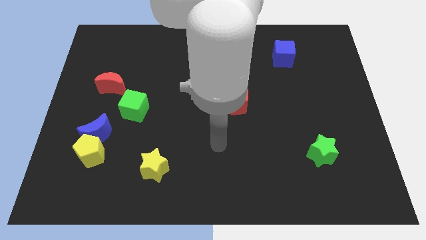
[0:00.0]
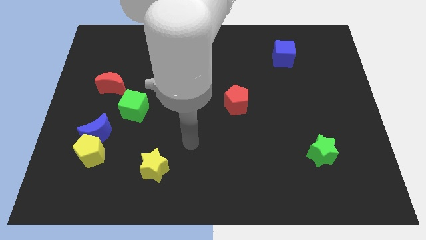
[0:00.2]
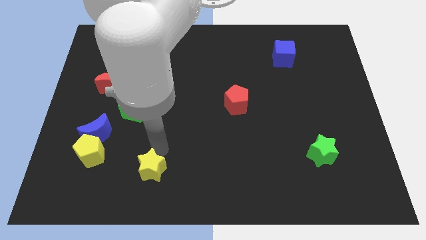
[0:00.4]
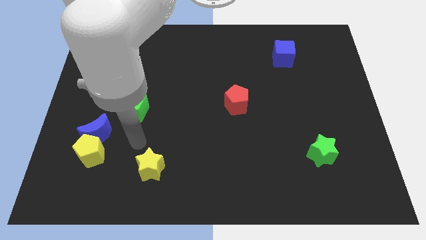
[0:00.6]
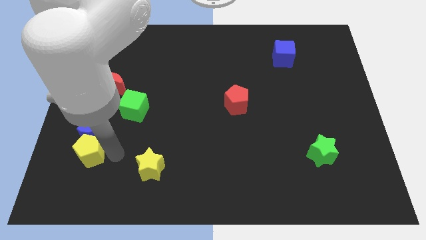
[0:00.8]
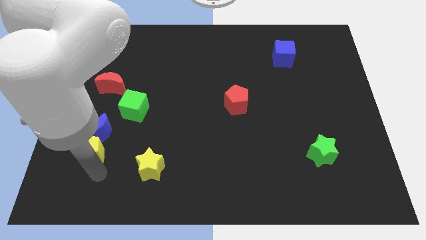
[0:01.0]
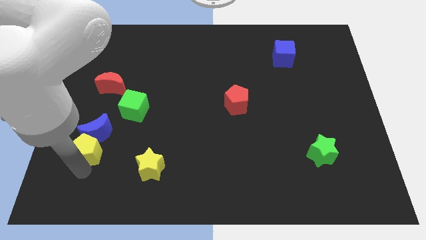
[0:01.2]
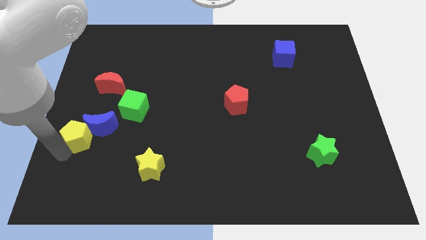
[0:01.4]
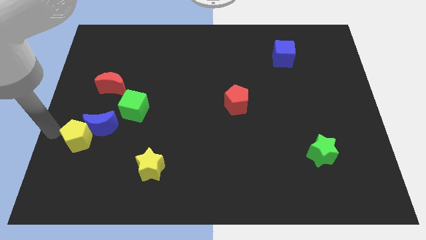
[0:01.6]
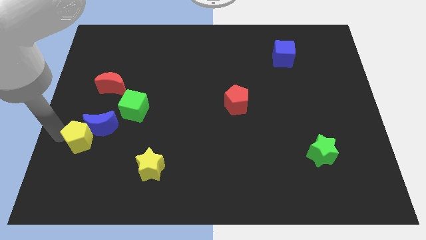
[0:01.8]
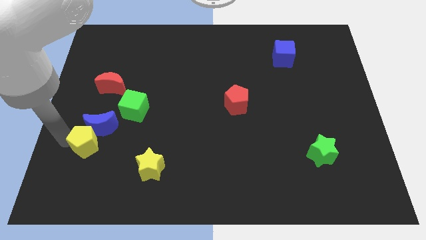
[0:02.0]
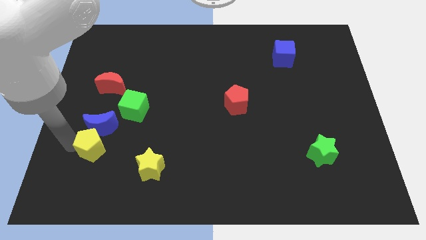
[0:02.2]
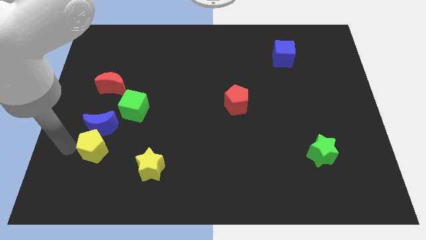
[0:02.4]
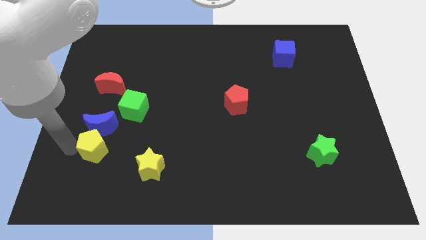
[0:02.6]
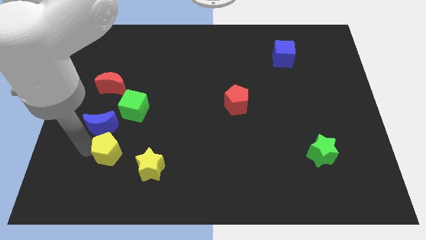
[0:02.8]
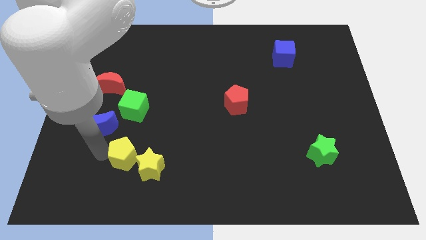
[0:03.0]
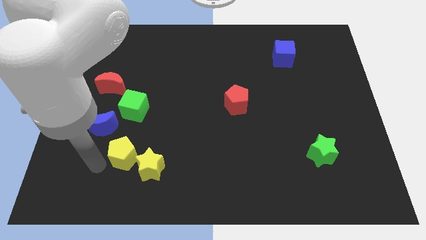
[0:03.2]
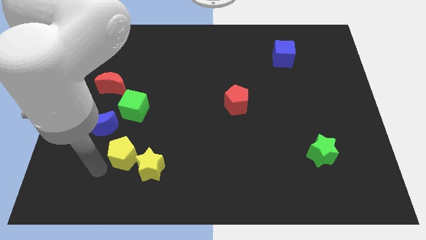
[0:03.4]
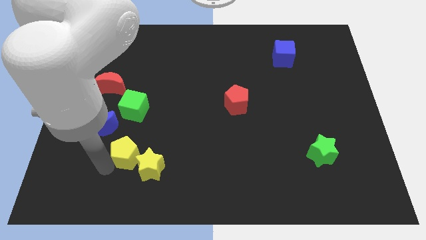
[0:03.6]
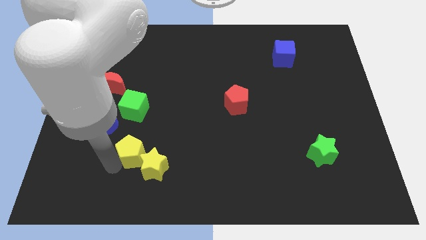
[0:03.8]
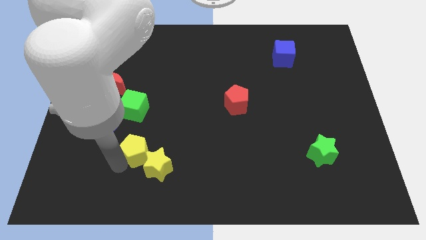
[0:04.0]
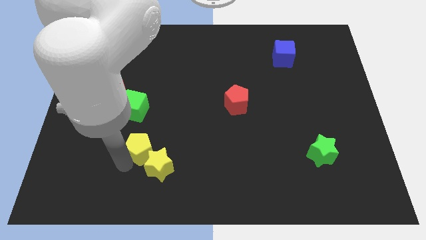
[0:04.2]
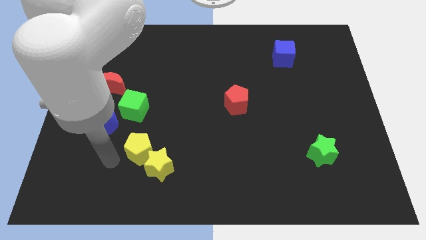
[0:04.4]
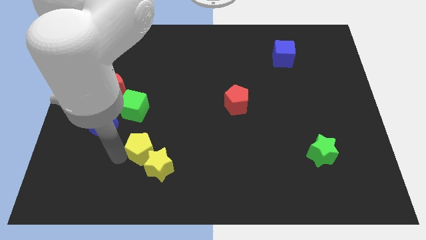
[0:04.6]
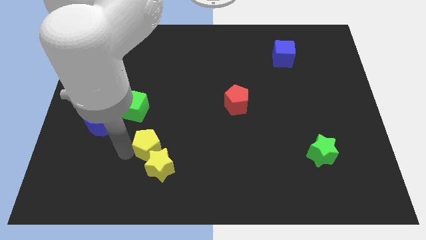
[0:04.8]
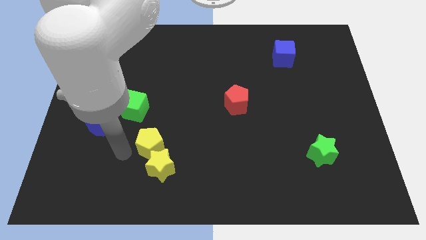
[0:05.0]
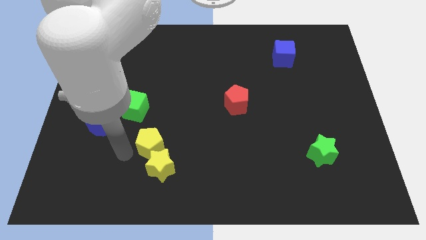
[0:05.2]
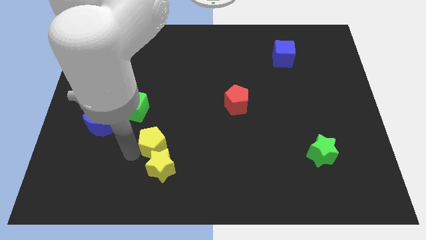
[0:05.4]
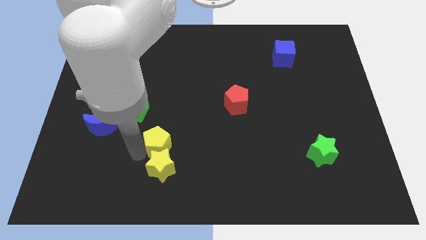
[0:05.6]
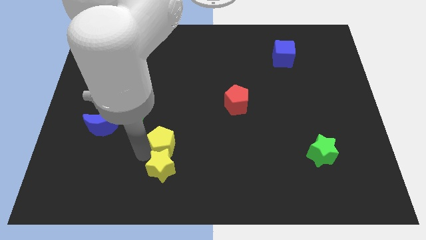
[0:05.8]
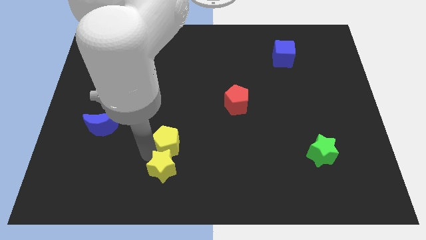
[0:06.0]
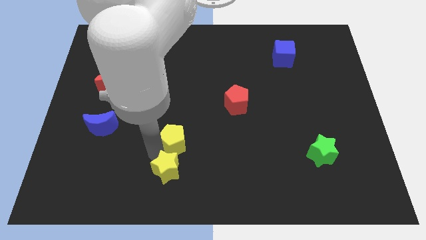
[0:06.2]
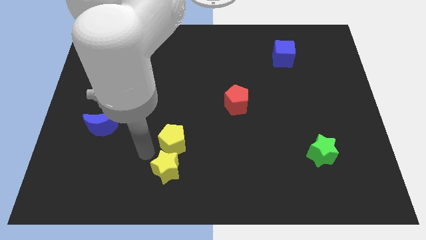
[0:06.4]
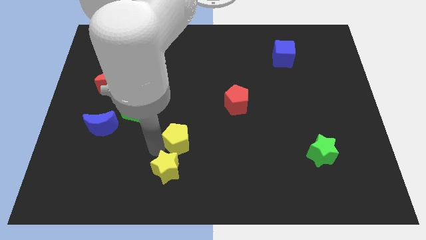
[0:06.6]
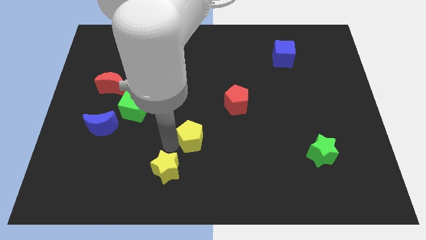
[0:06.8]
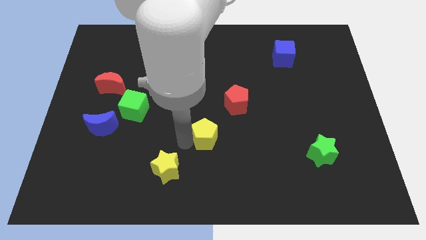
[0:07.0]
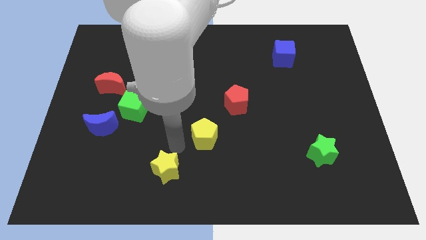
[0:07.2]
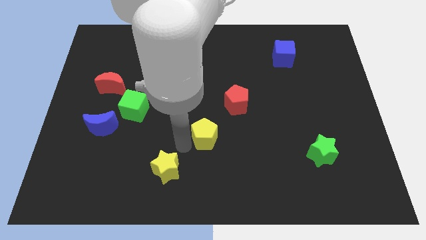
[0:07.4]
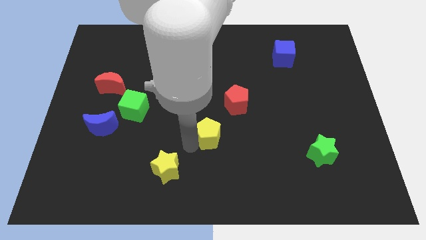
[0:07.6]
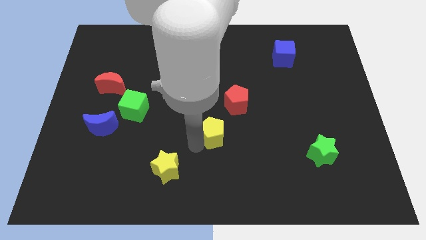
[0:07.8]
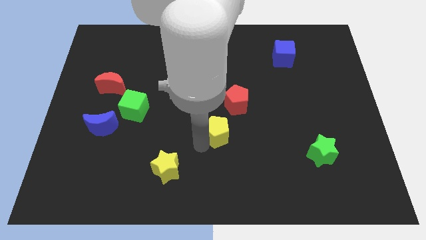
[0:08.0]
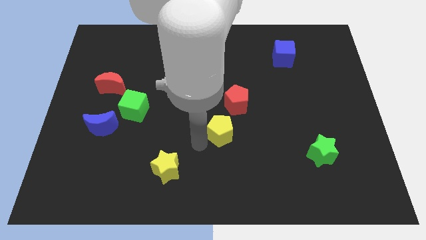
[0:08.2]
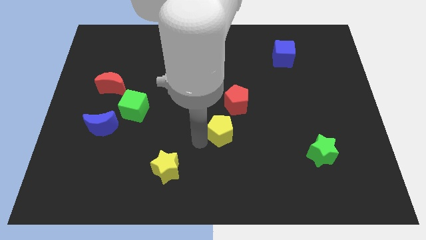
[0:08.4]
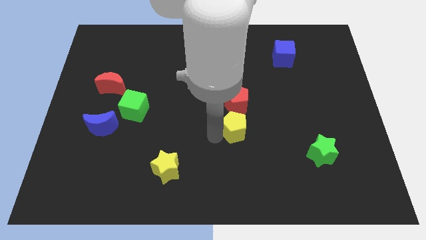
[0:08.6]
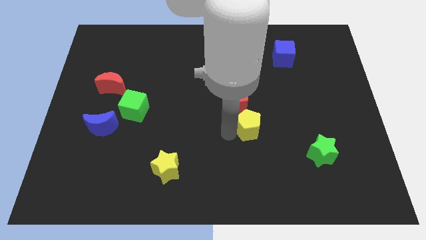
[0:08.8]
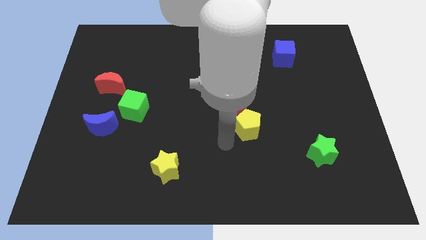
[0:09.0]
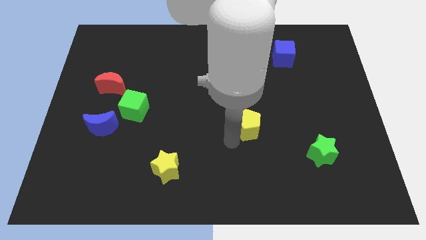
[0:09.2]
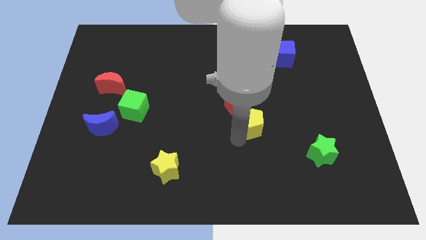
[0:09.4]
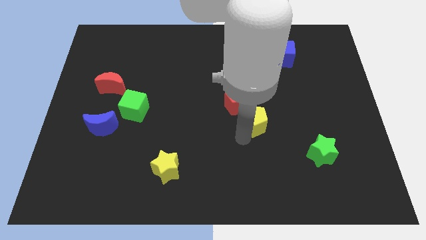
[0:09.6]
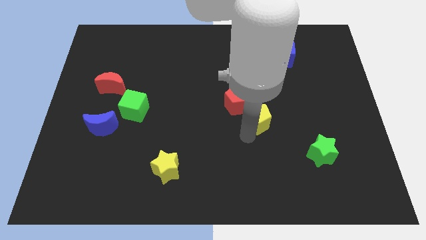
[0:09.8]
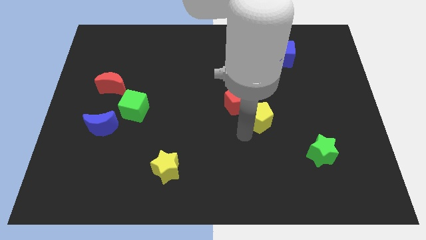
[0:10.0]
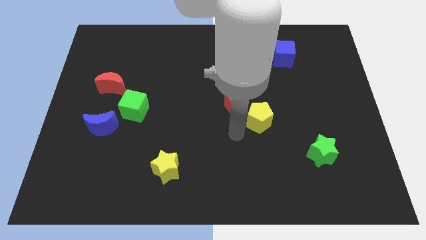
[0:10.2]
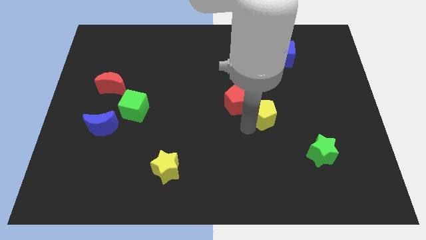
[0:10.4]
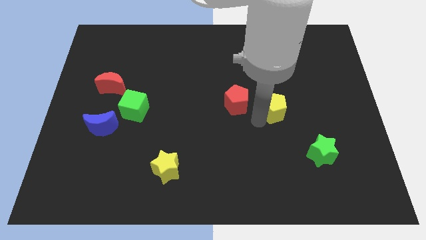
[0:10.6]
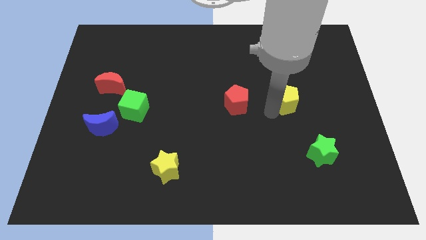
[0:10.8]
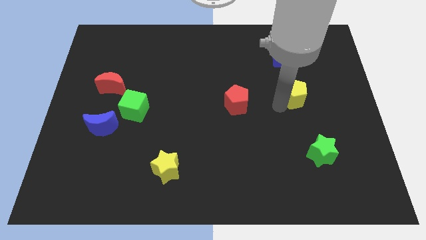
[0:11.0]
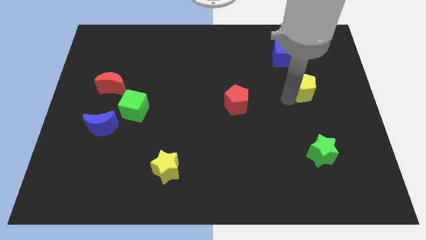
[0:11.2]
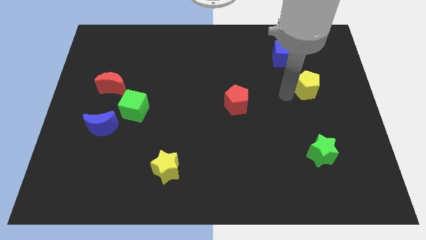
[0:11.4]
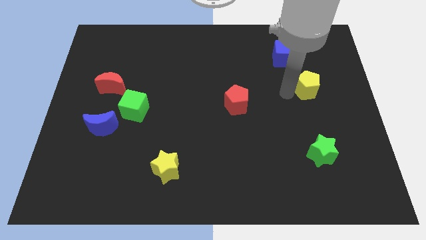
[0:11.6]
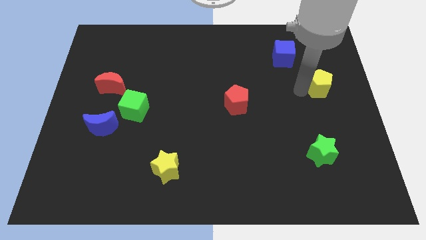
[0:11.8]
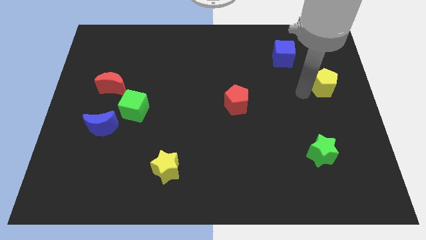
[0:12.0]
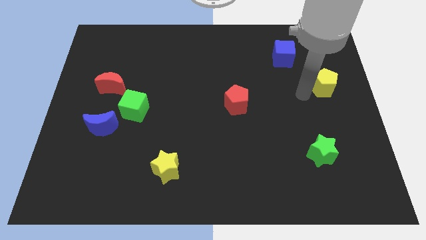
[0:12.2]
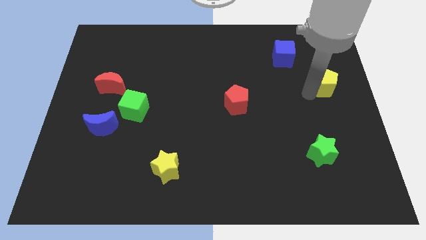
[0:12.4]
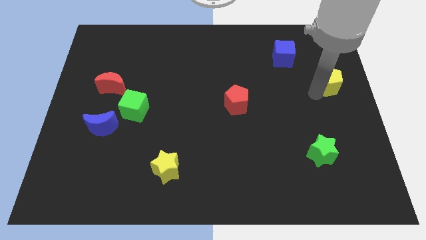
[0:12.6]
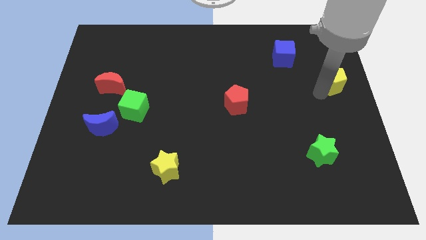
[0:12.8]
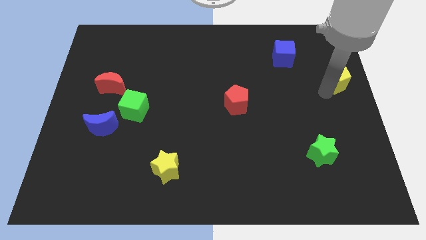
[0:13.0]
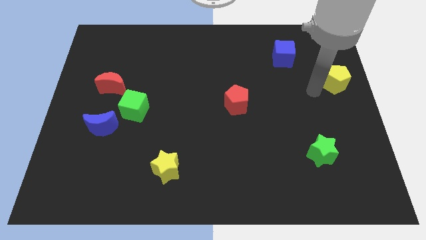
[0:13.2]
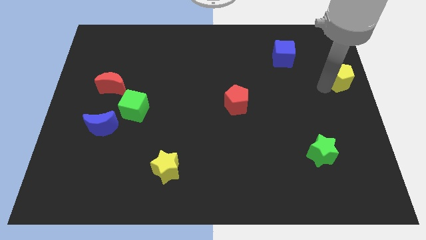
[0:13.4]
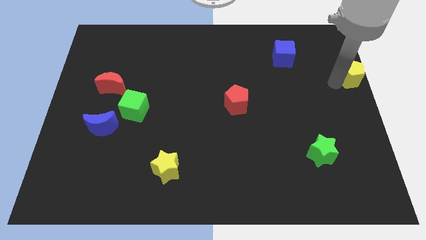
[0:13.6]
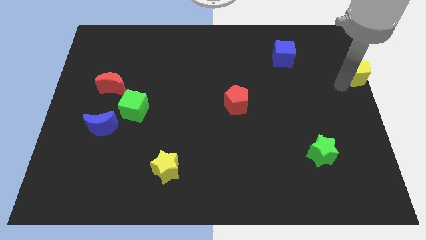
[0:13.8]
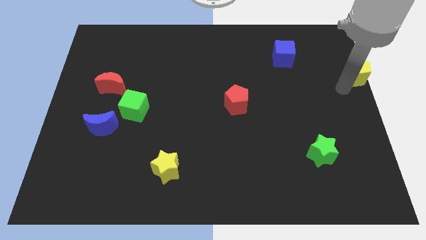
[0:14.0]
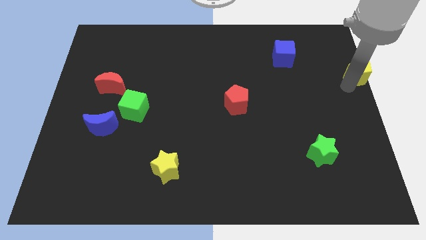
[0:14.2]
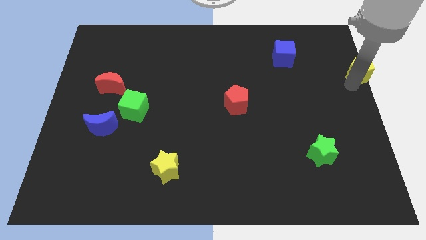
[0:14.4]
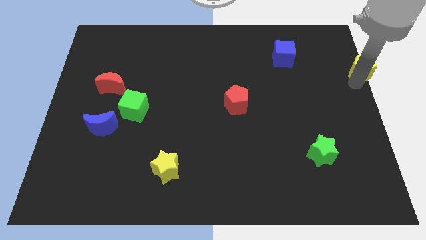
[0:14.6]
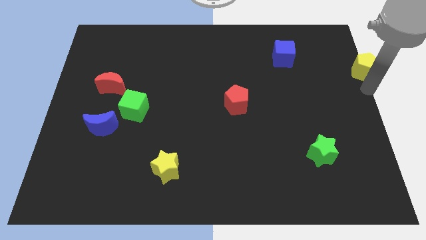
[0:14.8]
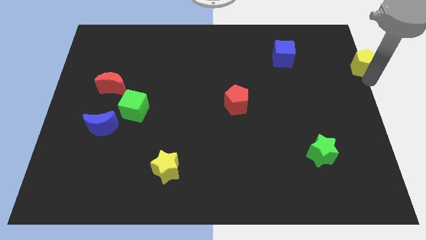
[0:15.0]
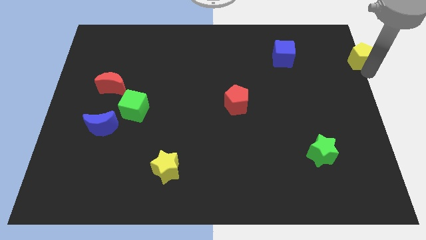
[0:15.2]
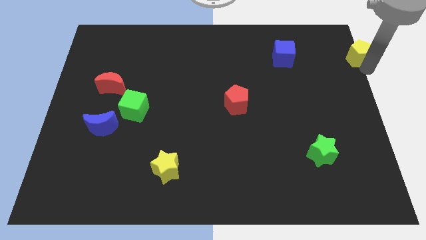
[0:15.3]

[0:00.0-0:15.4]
move the yellow pentagon to the top right corner
